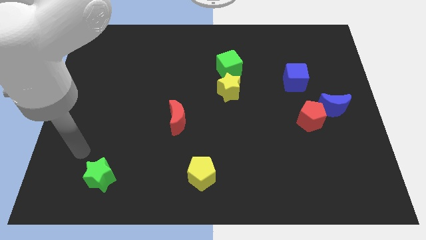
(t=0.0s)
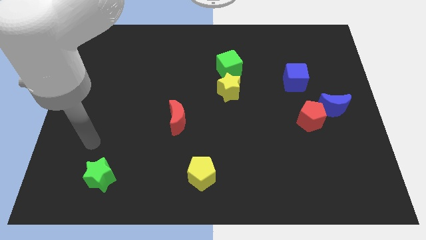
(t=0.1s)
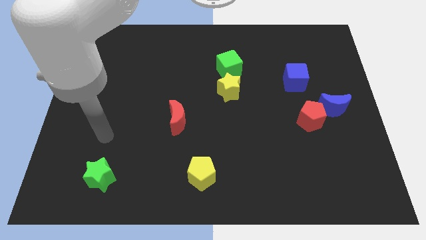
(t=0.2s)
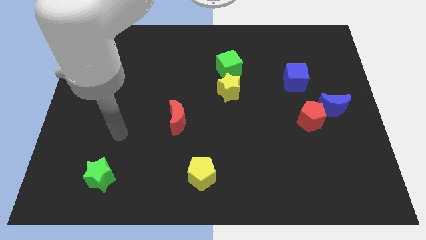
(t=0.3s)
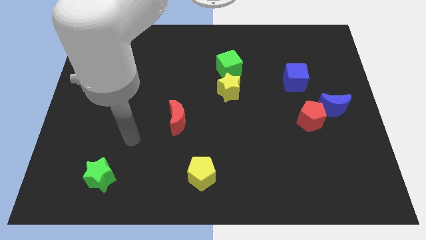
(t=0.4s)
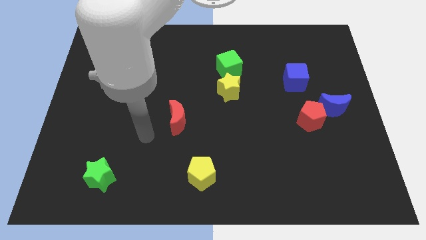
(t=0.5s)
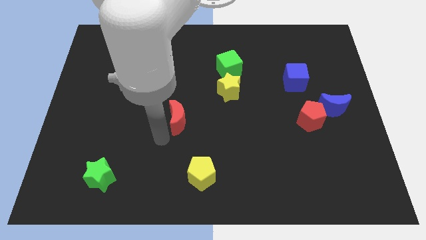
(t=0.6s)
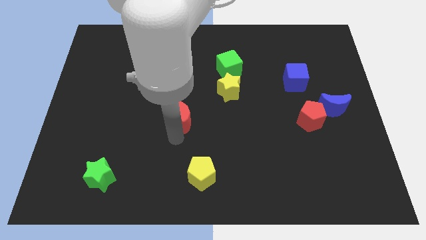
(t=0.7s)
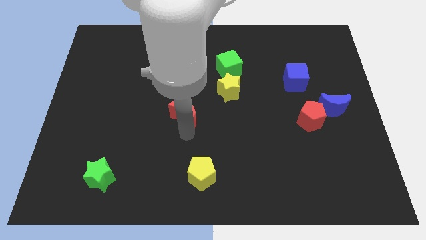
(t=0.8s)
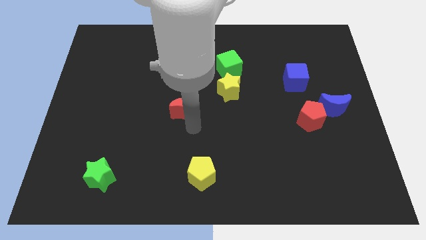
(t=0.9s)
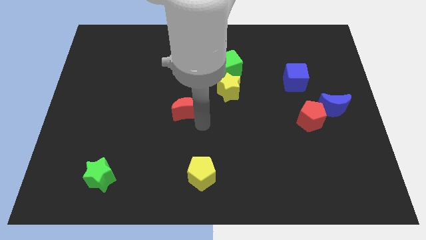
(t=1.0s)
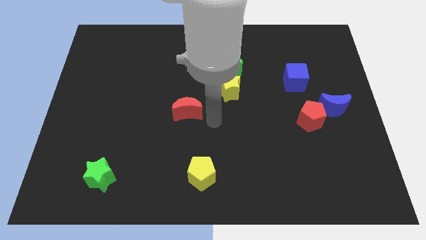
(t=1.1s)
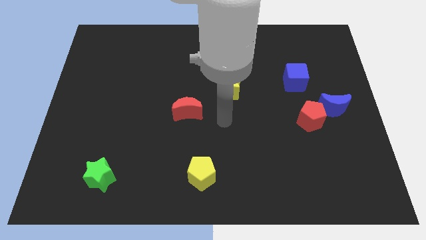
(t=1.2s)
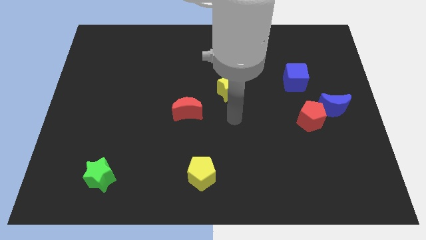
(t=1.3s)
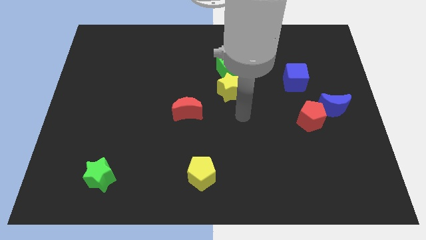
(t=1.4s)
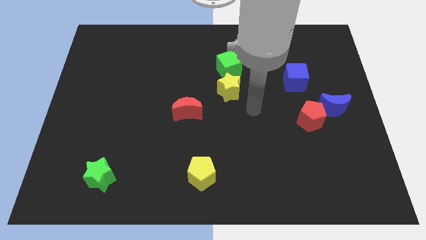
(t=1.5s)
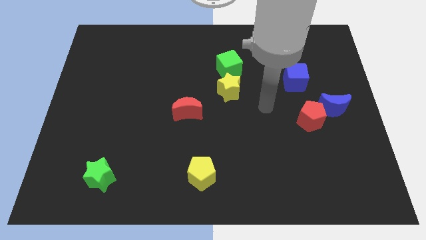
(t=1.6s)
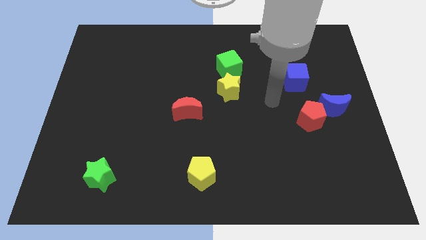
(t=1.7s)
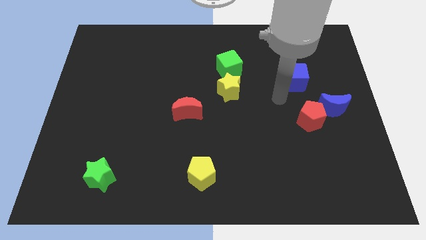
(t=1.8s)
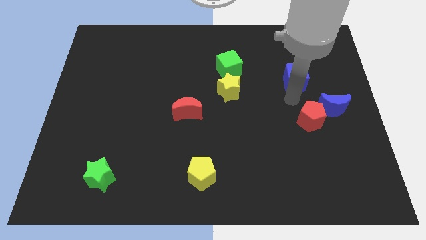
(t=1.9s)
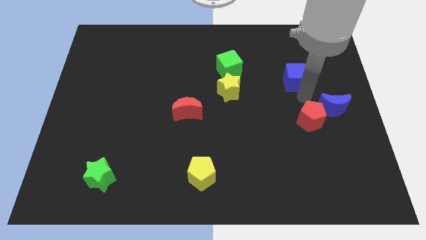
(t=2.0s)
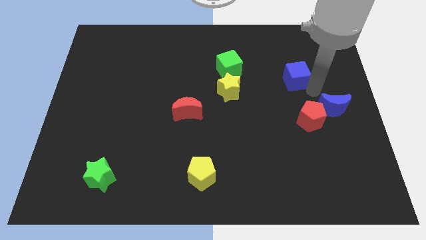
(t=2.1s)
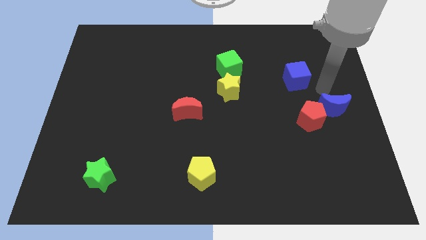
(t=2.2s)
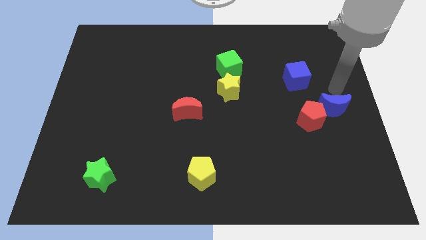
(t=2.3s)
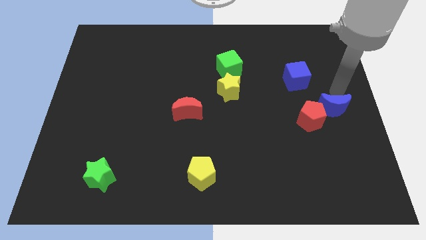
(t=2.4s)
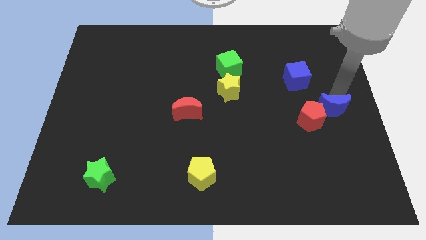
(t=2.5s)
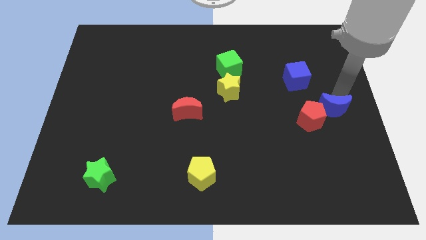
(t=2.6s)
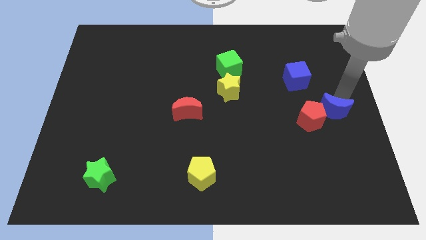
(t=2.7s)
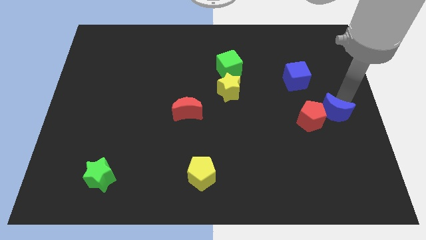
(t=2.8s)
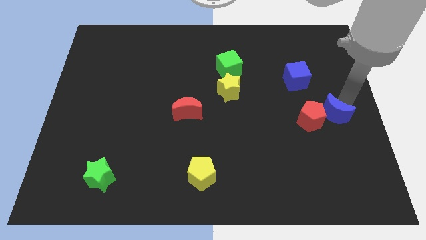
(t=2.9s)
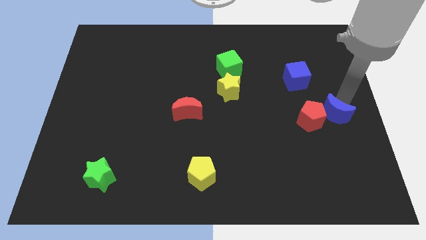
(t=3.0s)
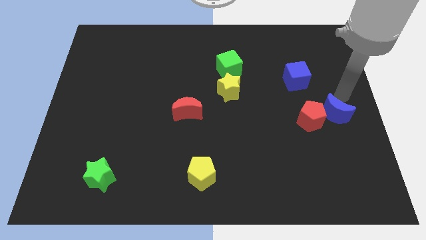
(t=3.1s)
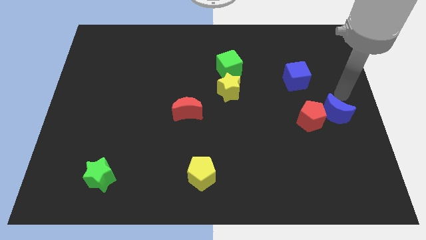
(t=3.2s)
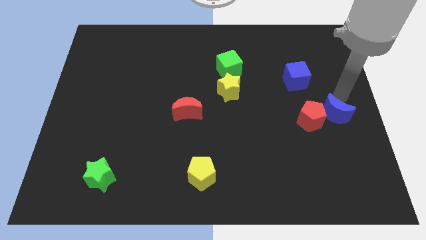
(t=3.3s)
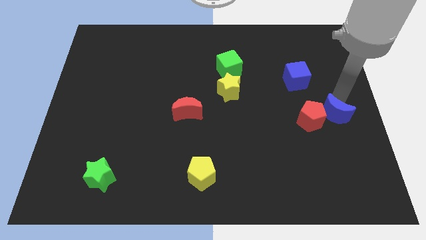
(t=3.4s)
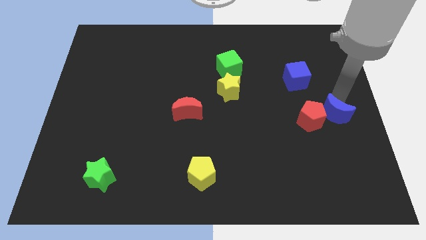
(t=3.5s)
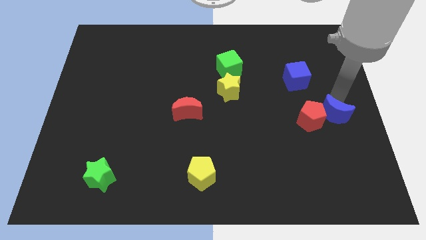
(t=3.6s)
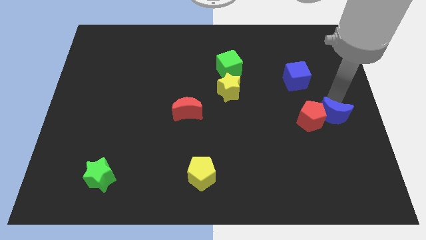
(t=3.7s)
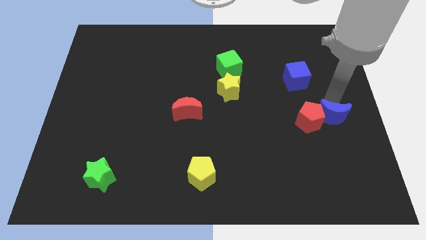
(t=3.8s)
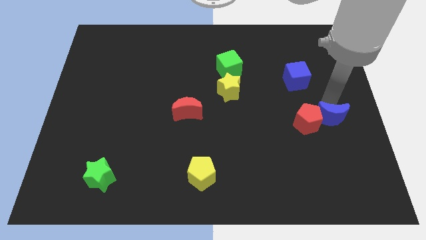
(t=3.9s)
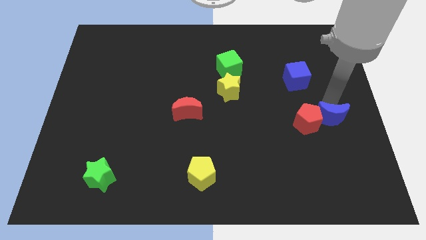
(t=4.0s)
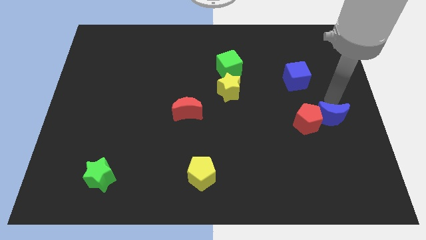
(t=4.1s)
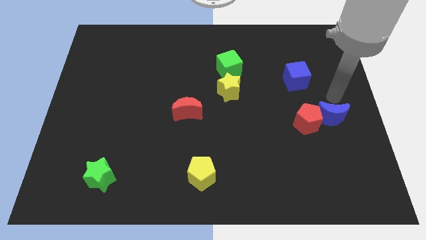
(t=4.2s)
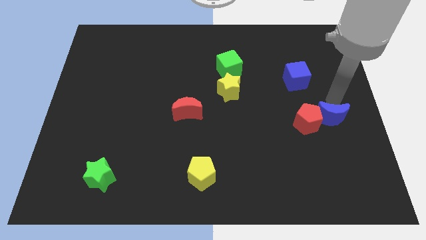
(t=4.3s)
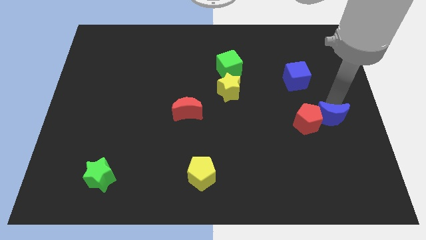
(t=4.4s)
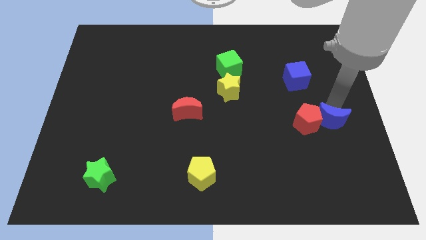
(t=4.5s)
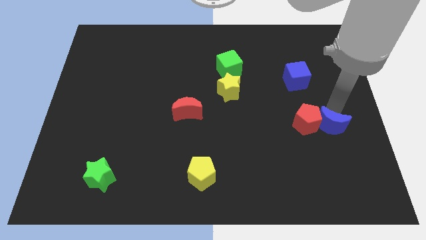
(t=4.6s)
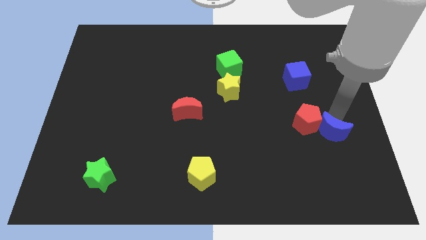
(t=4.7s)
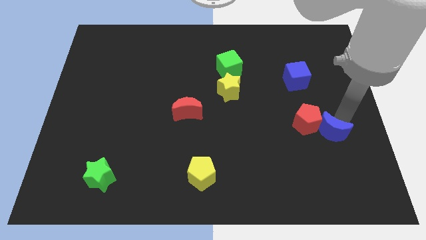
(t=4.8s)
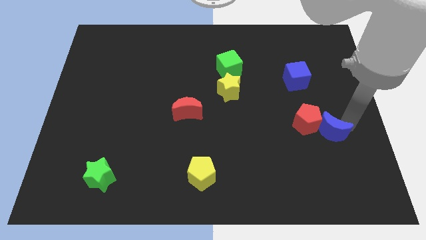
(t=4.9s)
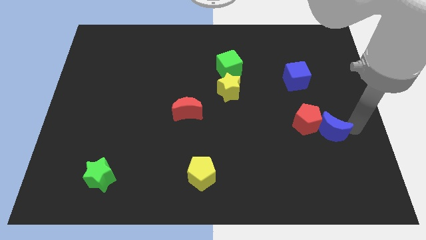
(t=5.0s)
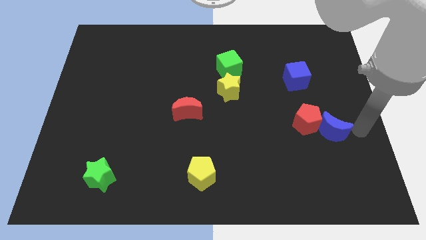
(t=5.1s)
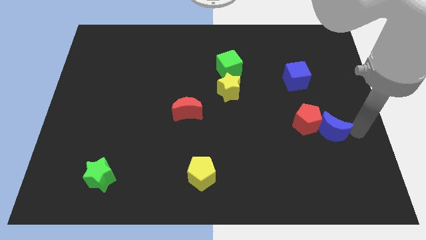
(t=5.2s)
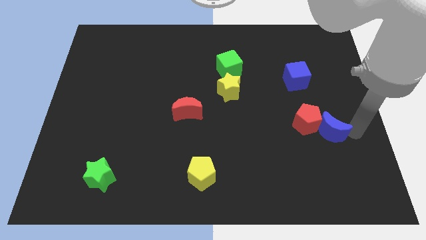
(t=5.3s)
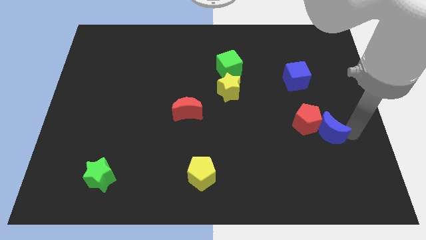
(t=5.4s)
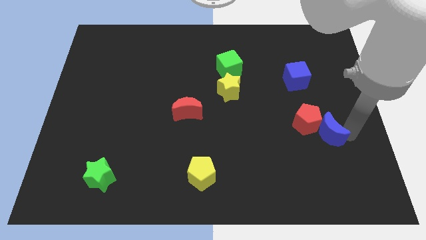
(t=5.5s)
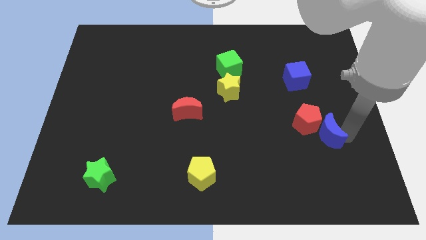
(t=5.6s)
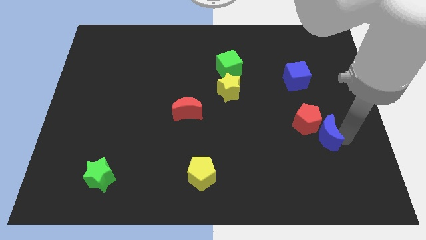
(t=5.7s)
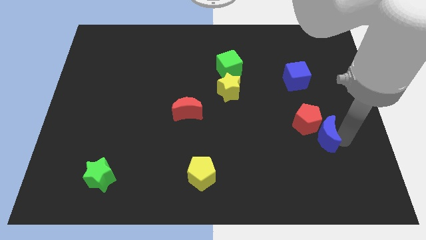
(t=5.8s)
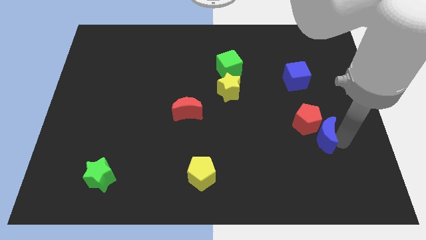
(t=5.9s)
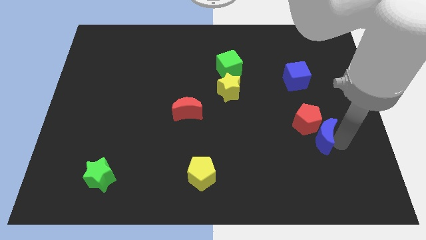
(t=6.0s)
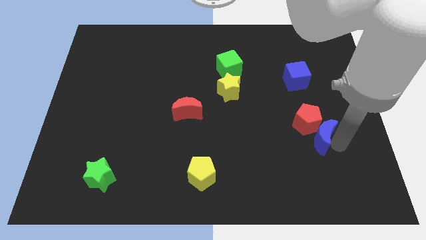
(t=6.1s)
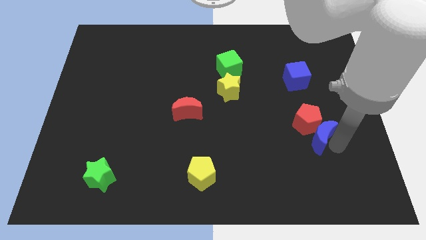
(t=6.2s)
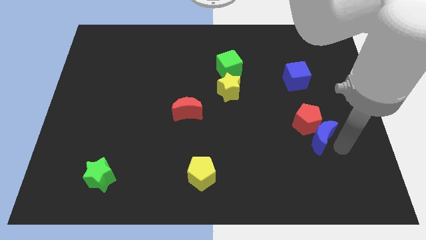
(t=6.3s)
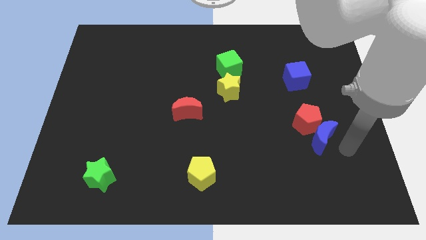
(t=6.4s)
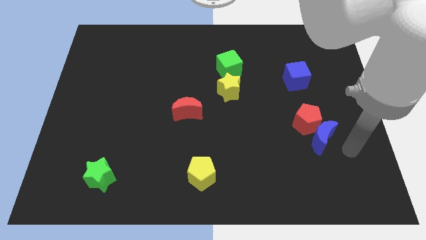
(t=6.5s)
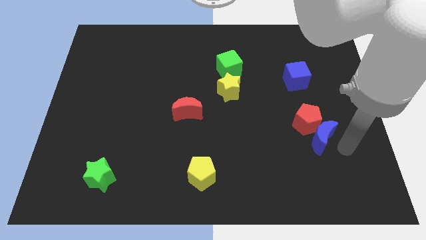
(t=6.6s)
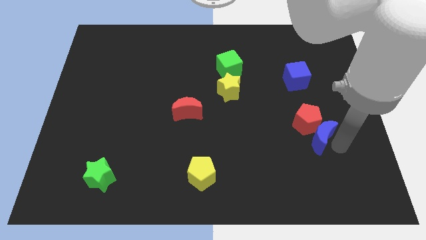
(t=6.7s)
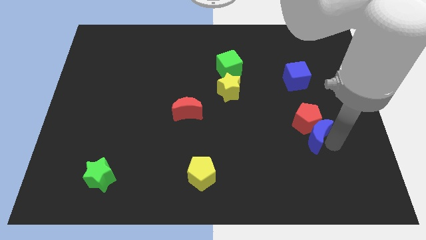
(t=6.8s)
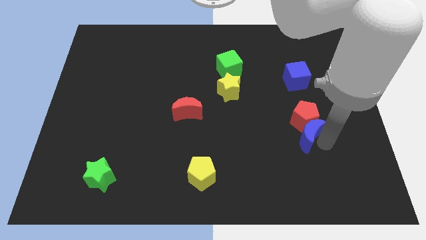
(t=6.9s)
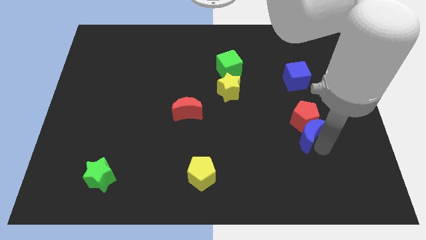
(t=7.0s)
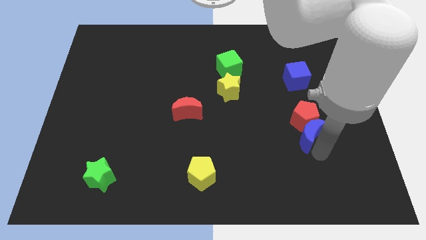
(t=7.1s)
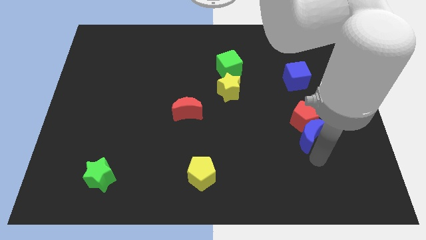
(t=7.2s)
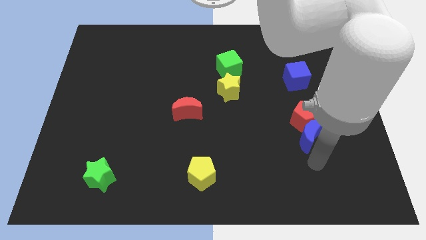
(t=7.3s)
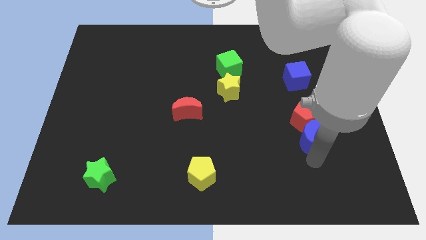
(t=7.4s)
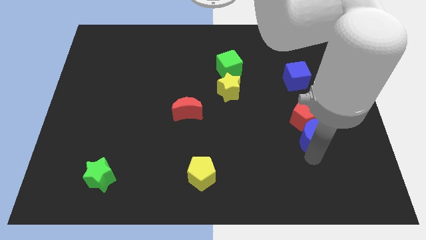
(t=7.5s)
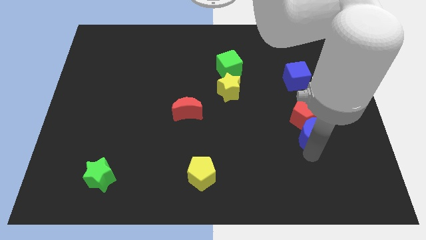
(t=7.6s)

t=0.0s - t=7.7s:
put the blue moon below the blue cube
